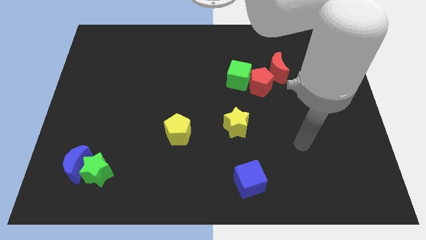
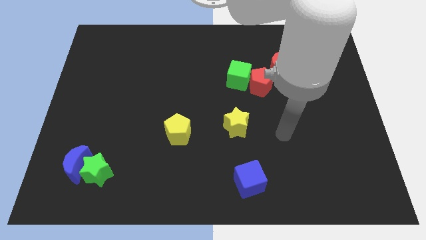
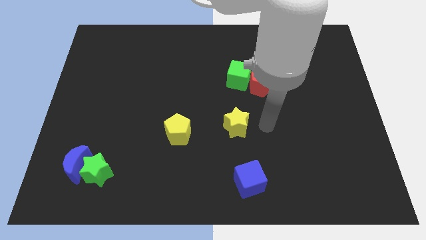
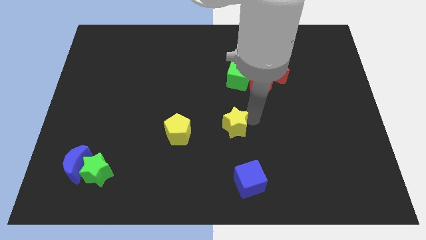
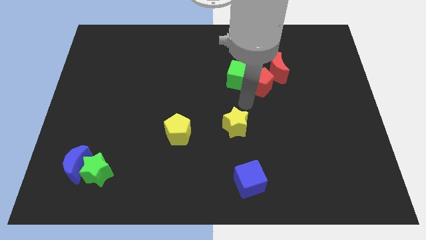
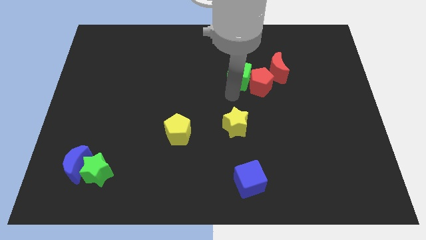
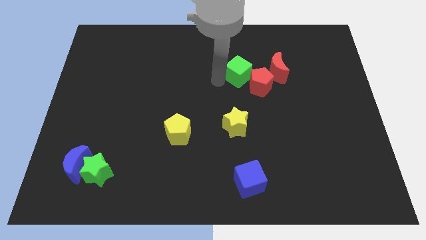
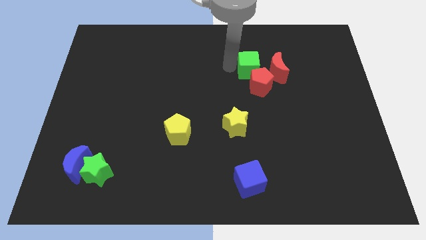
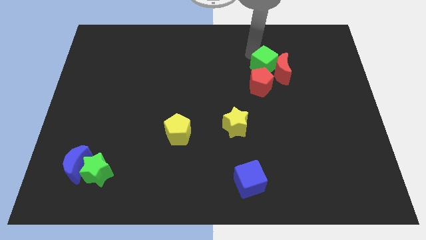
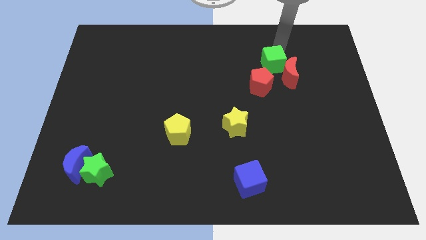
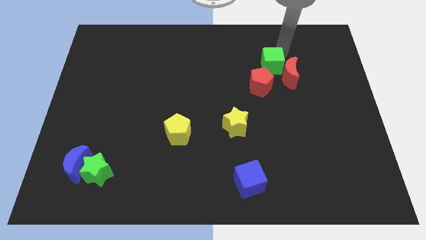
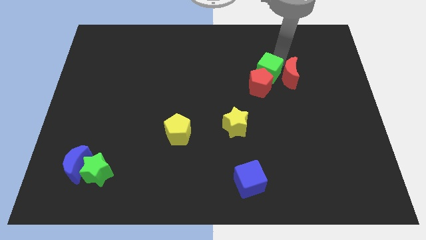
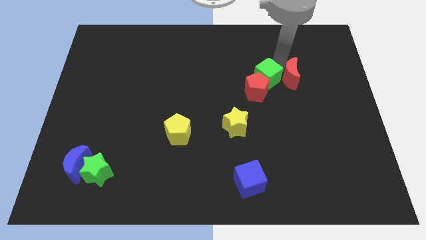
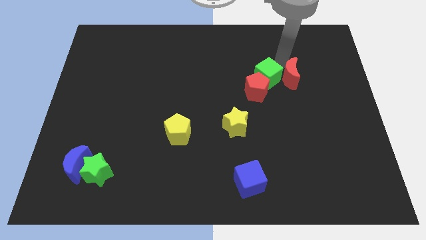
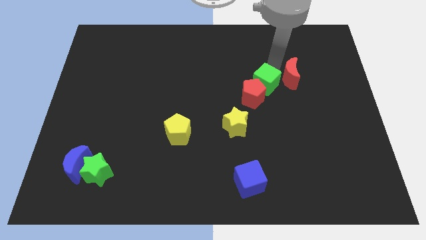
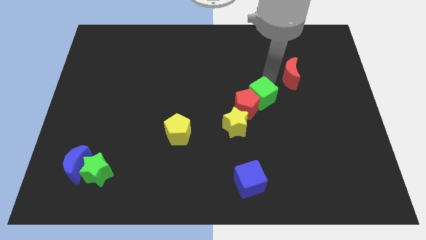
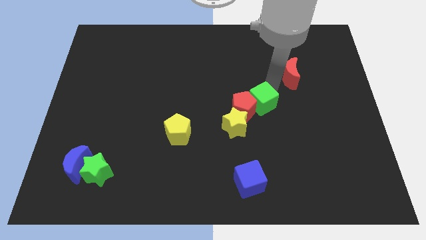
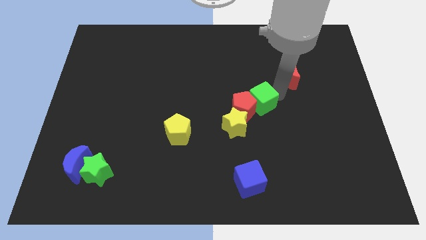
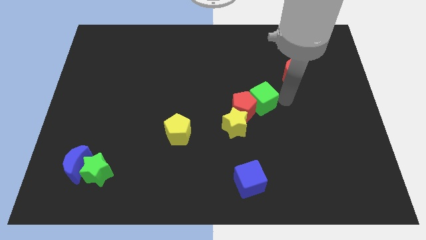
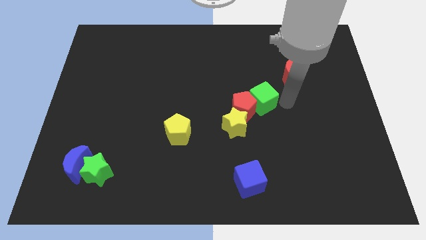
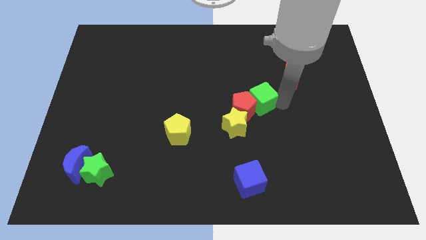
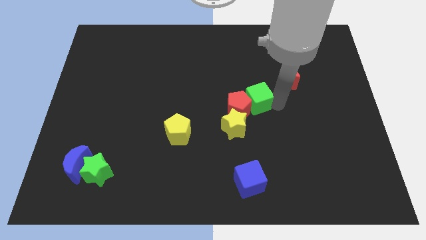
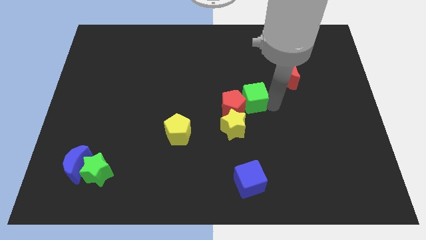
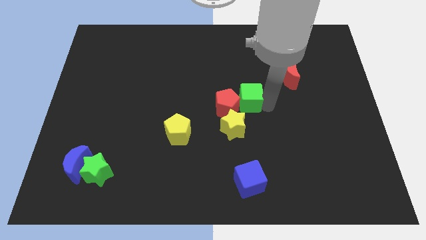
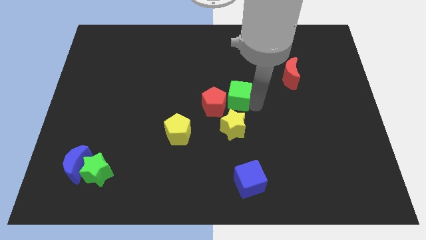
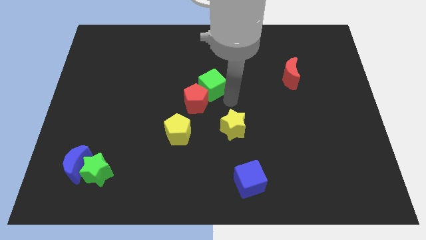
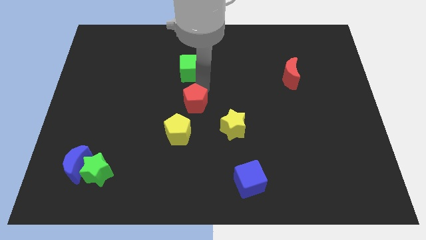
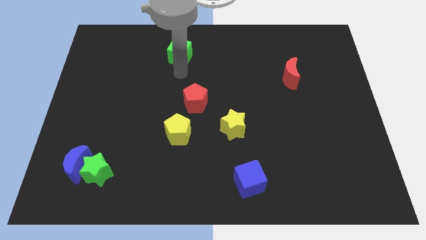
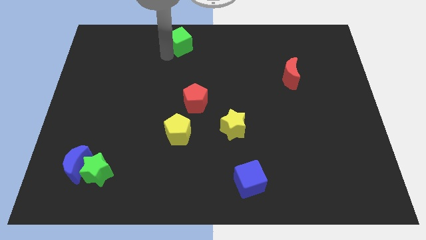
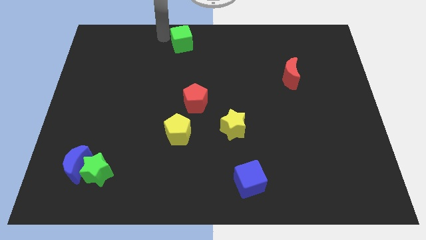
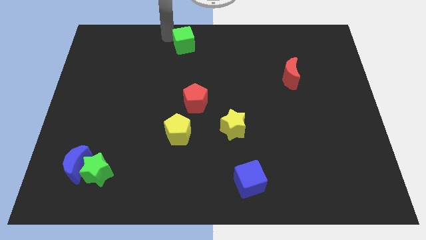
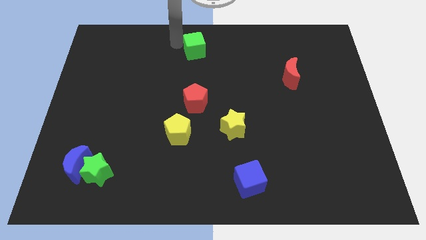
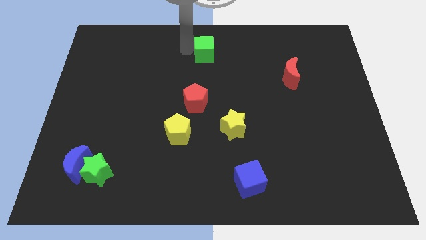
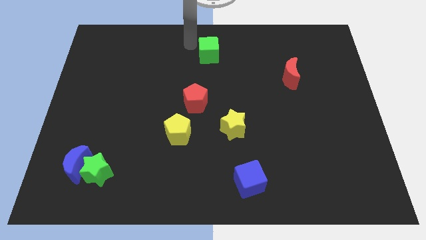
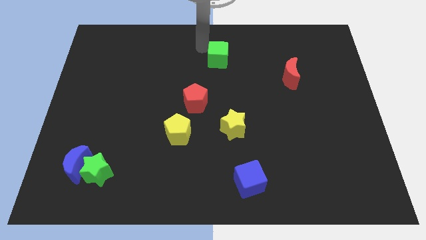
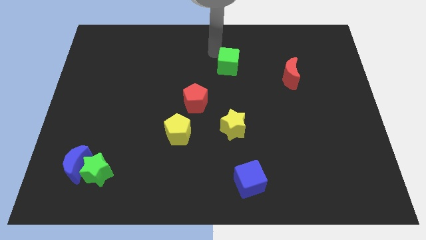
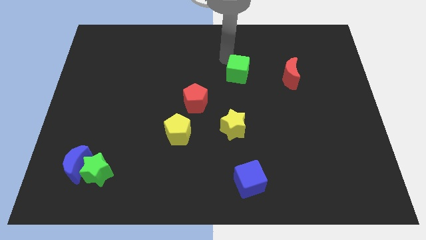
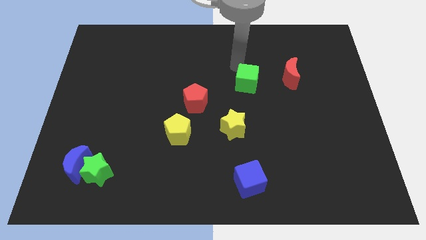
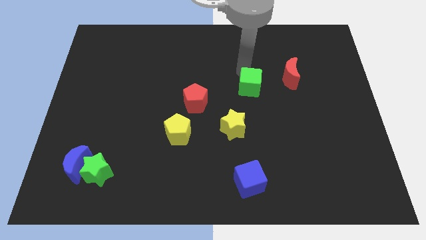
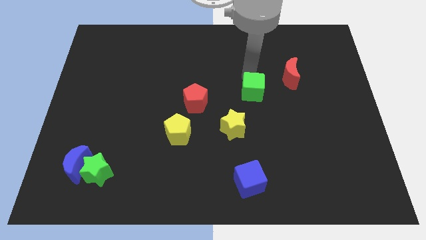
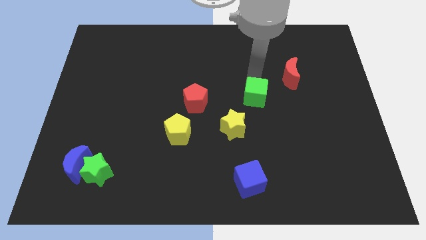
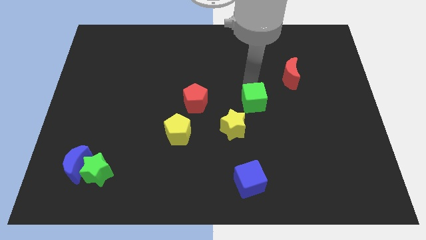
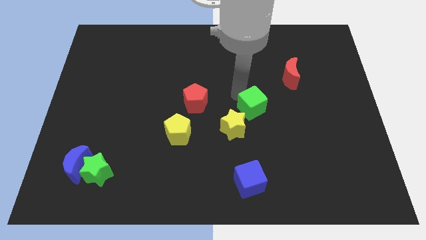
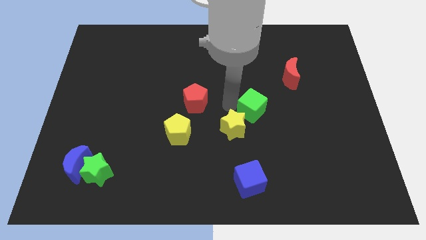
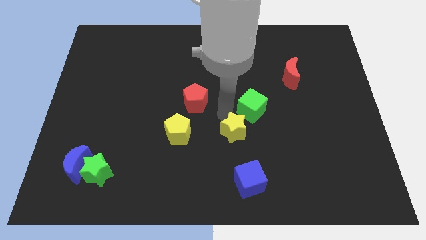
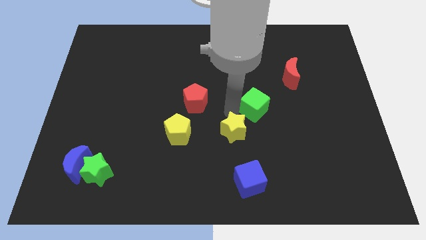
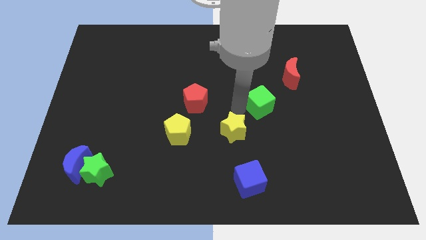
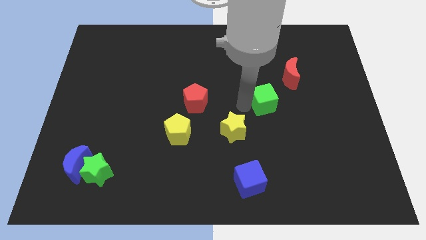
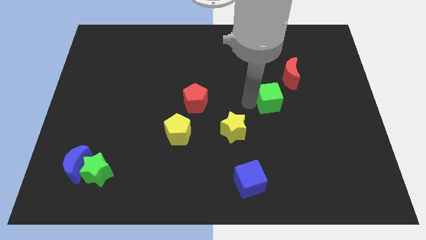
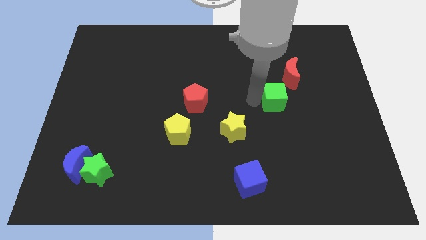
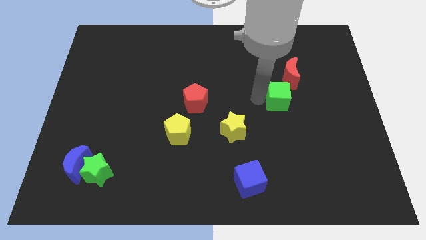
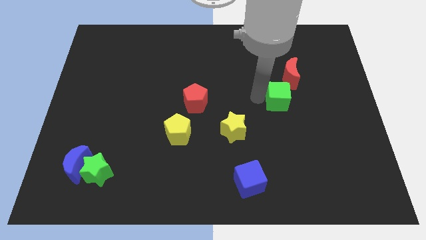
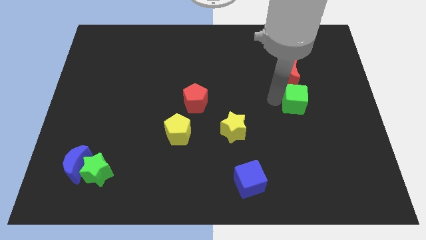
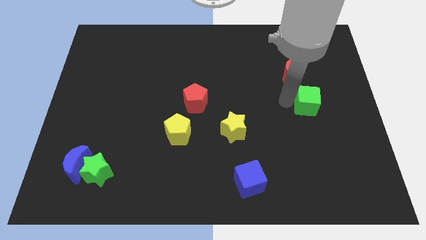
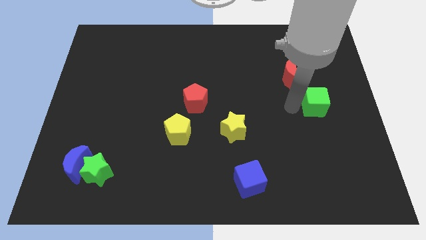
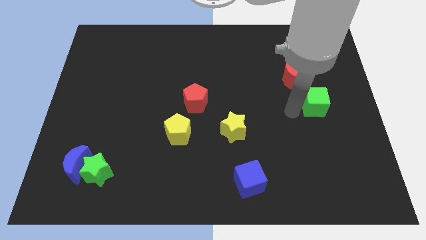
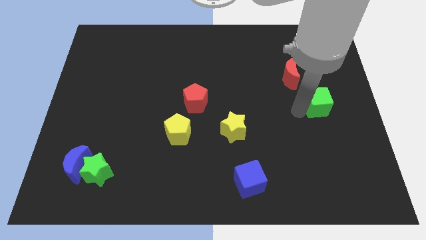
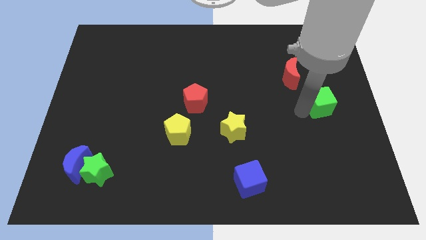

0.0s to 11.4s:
slide the green cube to the right side of the board

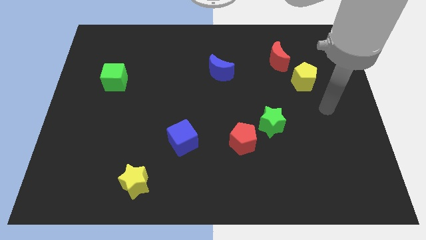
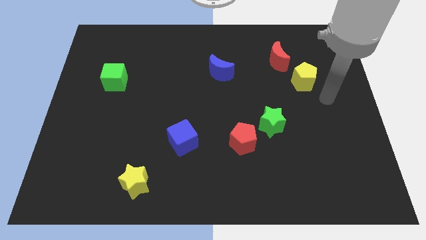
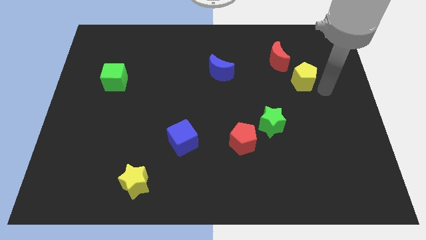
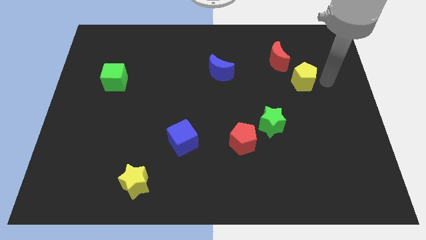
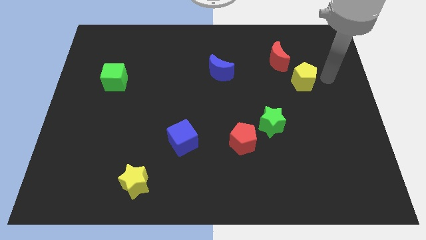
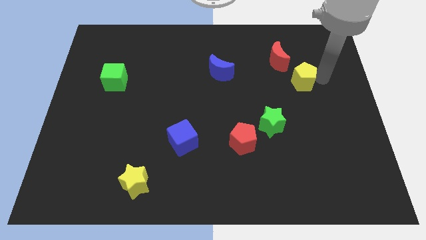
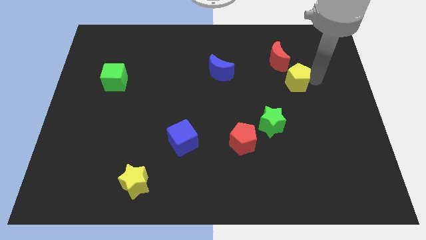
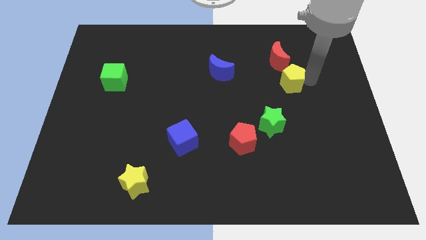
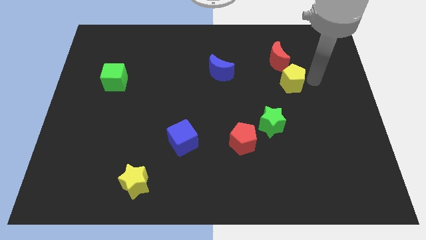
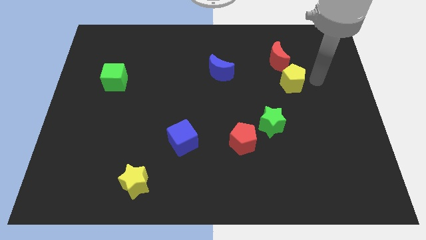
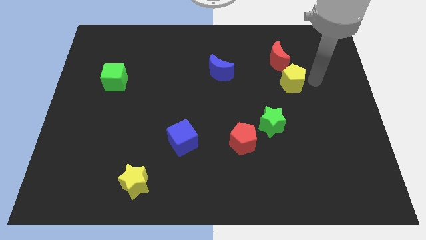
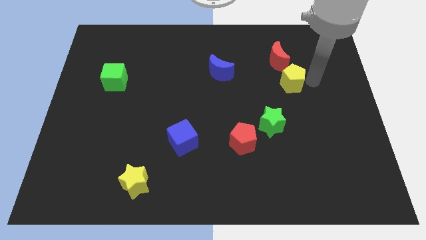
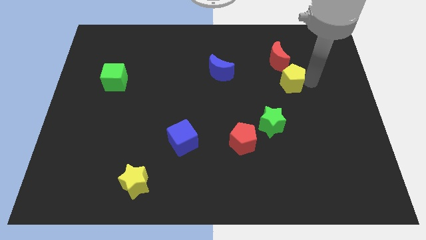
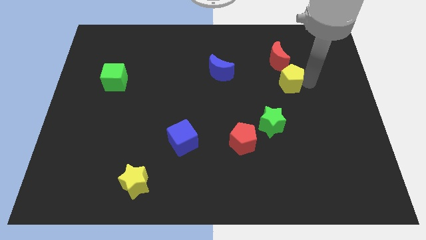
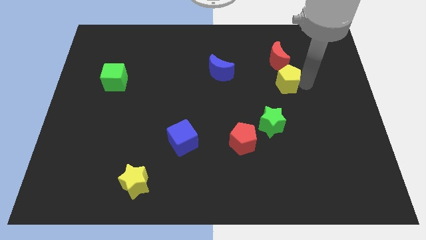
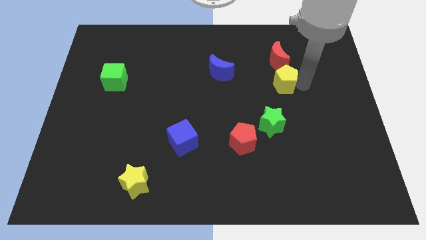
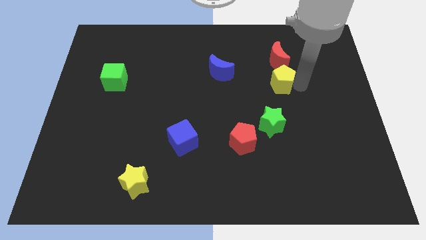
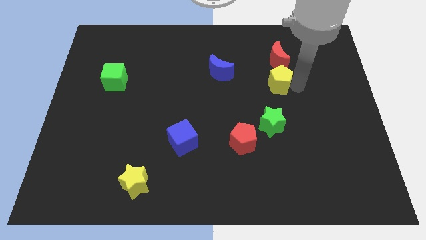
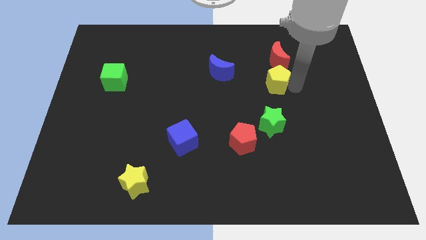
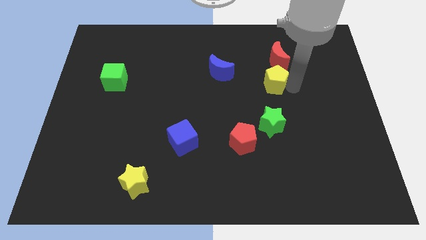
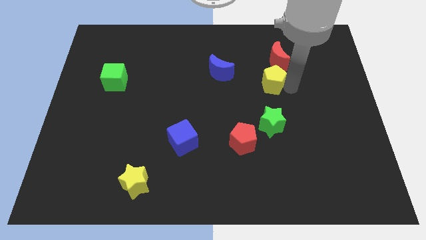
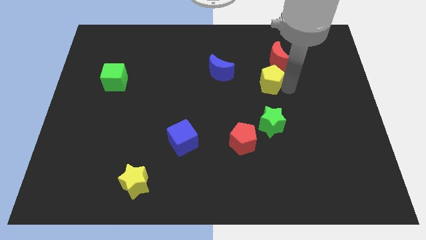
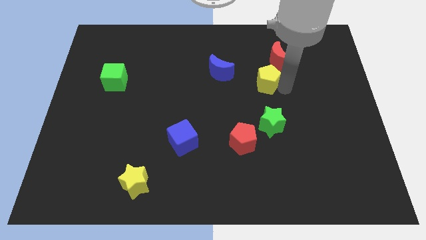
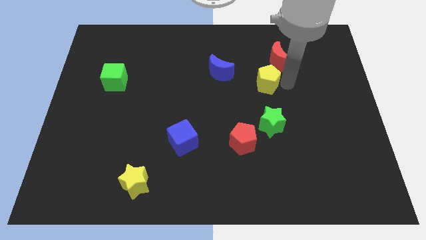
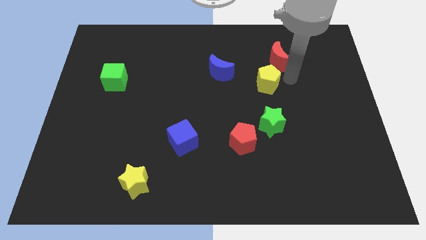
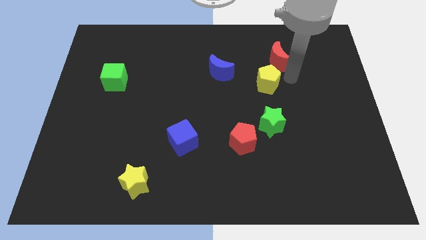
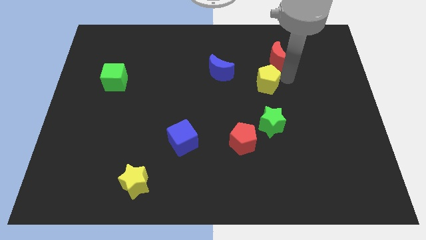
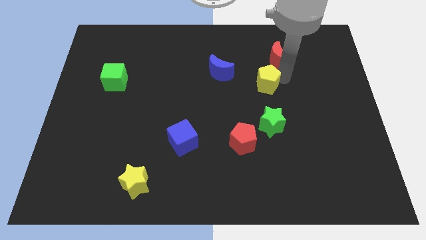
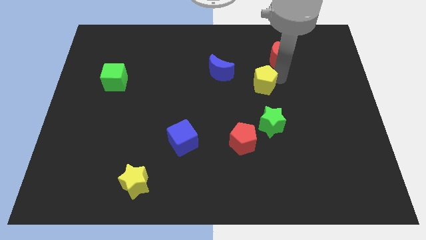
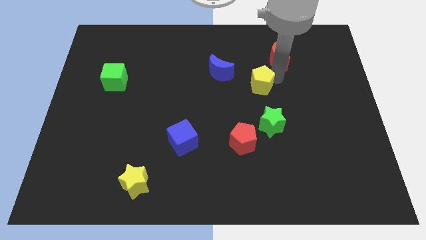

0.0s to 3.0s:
move the yellow pentagon to the middle of the board
